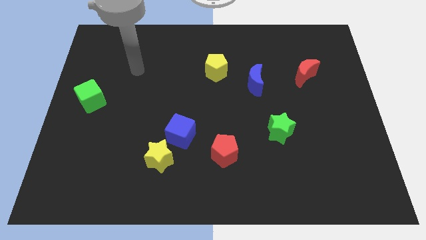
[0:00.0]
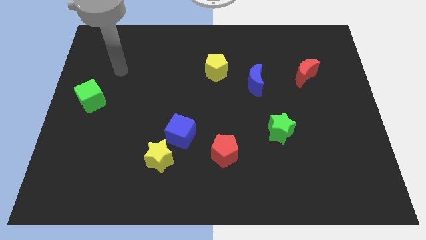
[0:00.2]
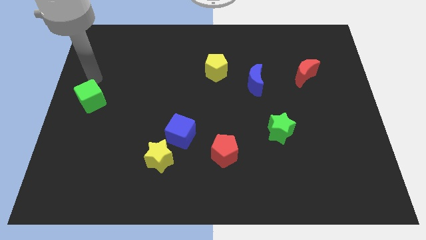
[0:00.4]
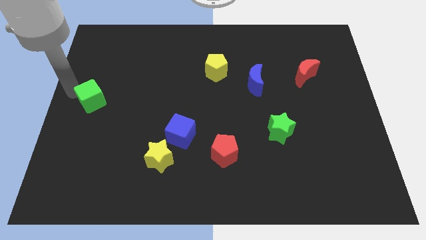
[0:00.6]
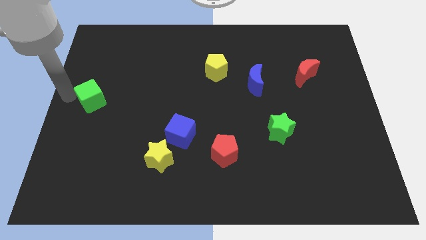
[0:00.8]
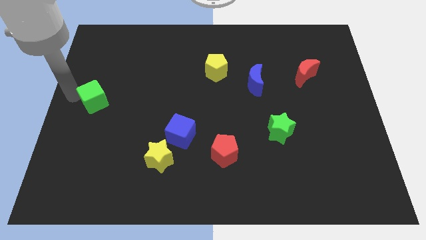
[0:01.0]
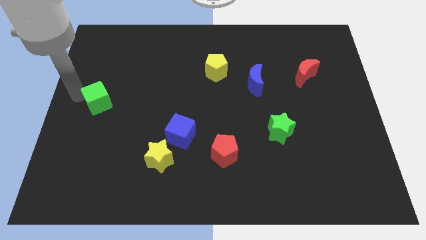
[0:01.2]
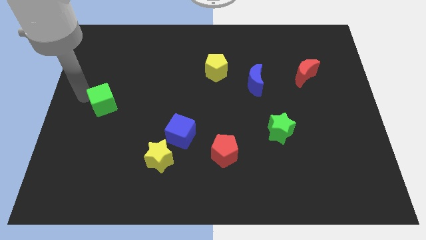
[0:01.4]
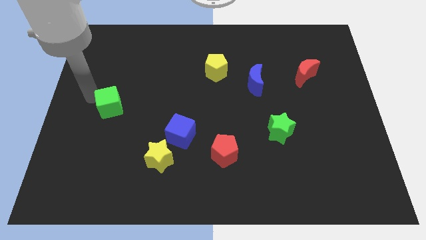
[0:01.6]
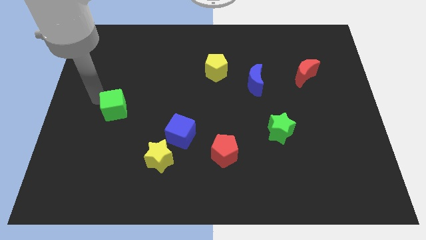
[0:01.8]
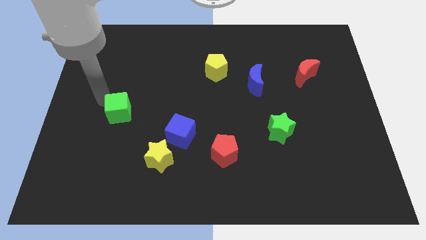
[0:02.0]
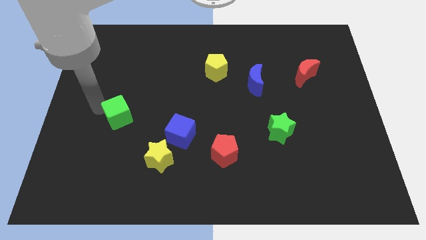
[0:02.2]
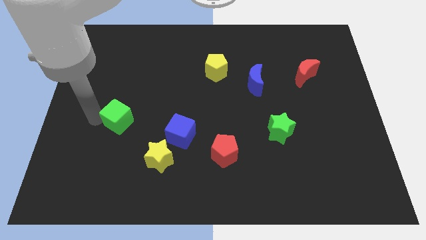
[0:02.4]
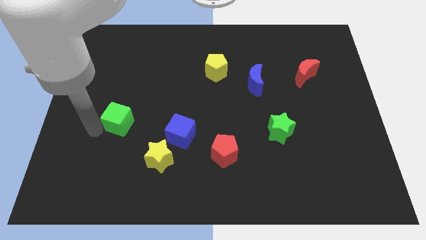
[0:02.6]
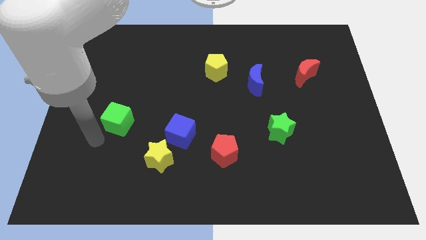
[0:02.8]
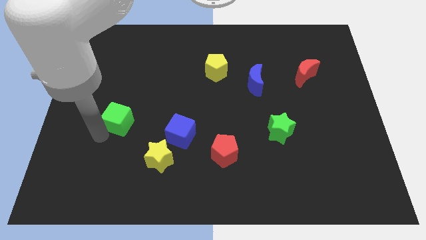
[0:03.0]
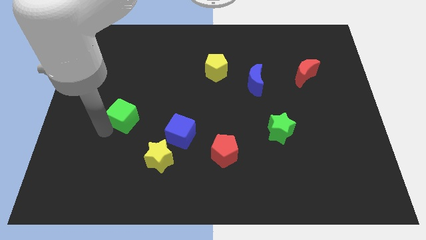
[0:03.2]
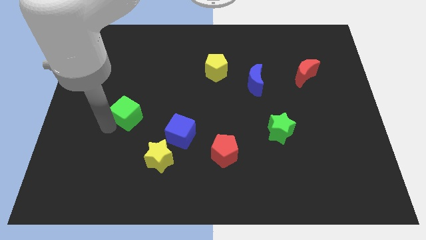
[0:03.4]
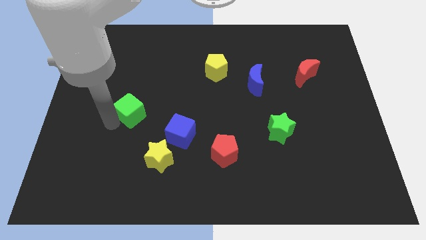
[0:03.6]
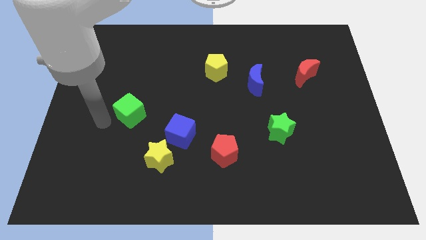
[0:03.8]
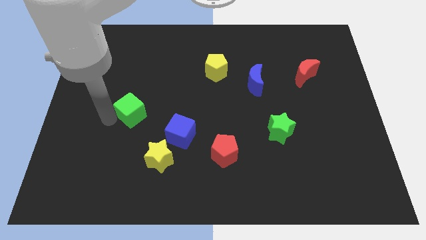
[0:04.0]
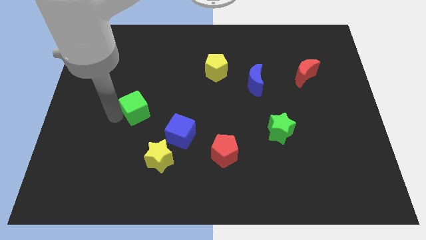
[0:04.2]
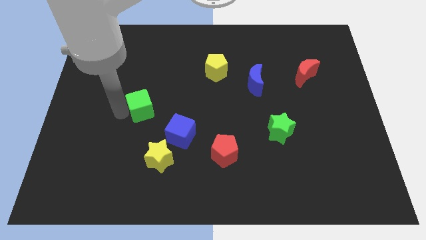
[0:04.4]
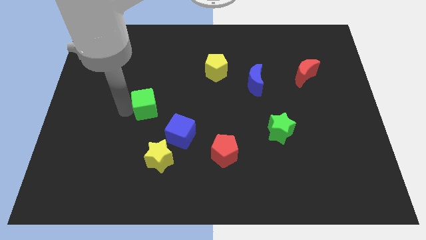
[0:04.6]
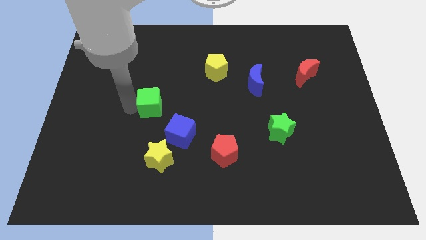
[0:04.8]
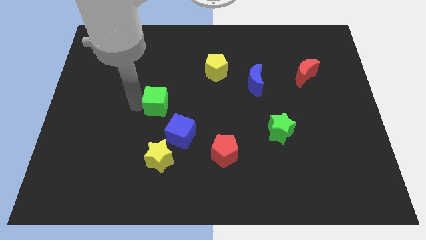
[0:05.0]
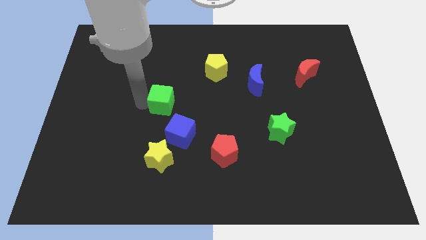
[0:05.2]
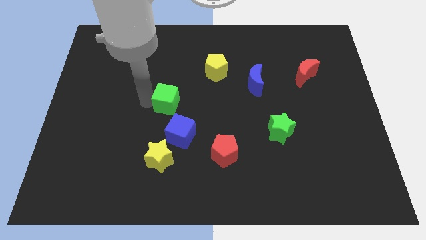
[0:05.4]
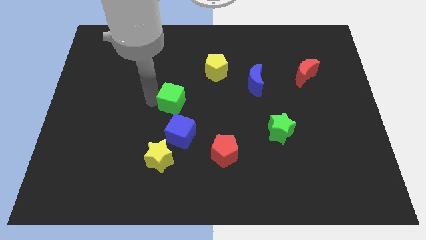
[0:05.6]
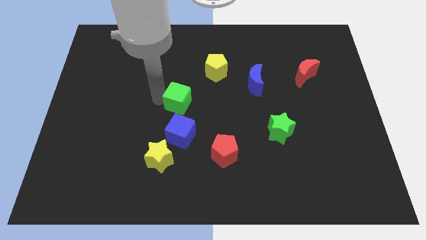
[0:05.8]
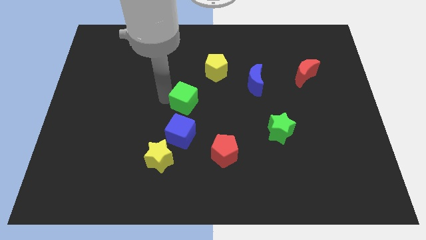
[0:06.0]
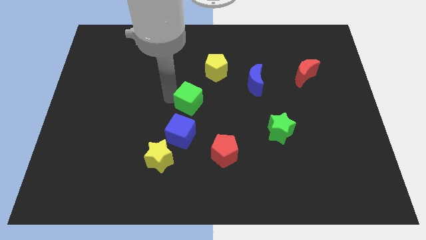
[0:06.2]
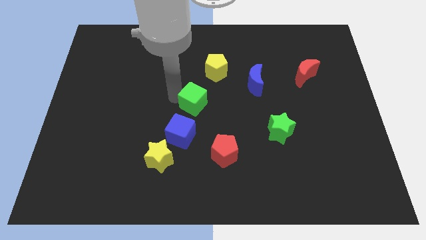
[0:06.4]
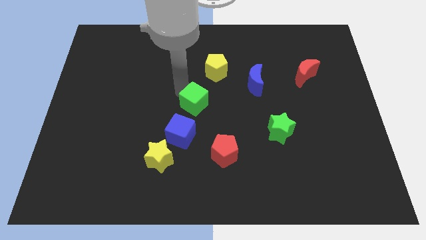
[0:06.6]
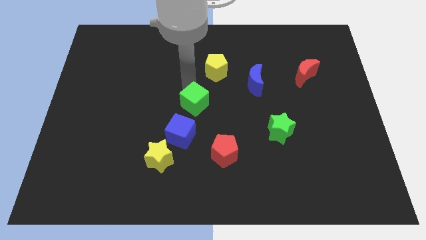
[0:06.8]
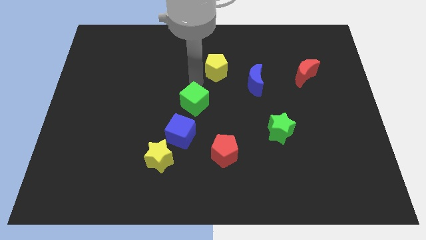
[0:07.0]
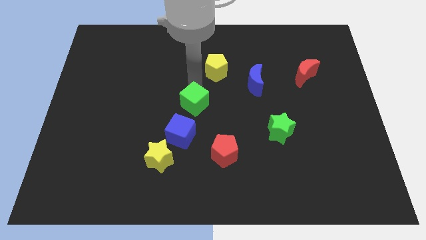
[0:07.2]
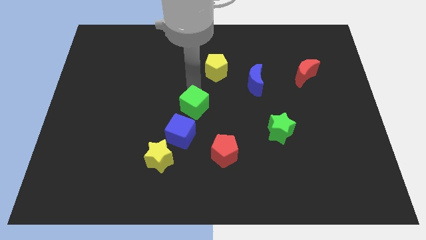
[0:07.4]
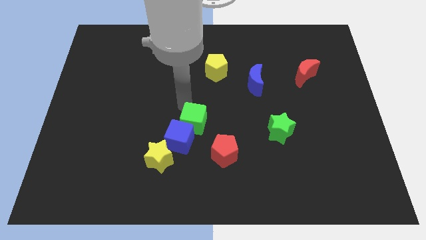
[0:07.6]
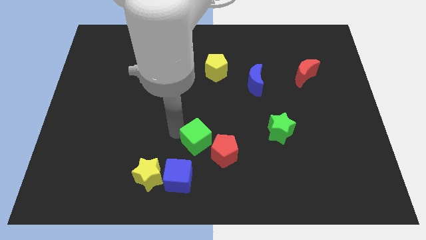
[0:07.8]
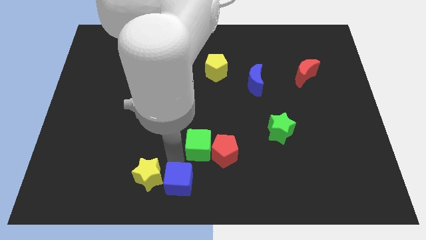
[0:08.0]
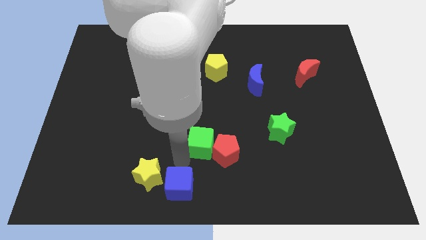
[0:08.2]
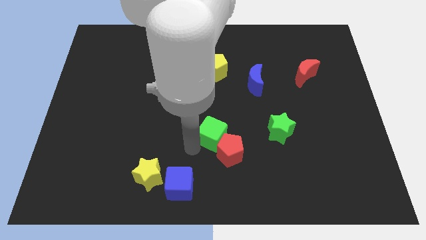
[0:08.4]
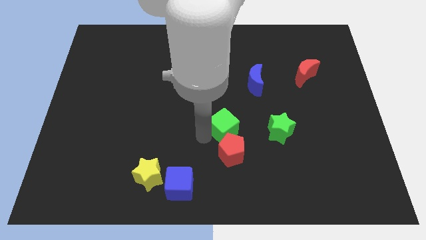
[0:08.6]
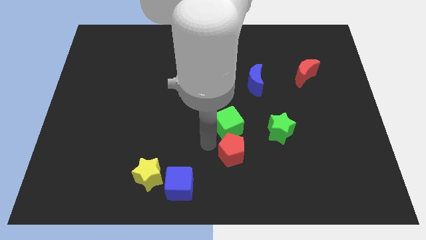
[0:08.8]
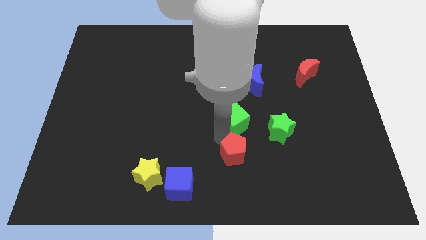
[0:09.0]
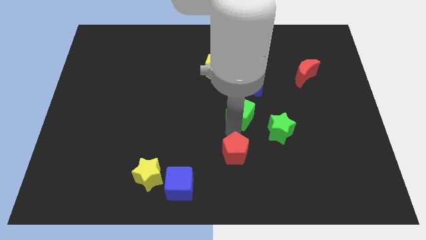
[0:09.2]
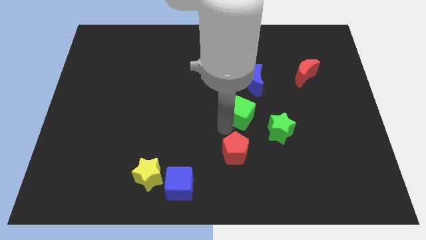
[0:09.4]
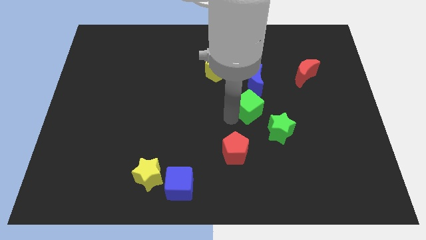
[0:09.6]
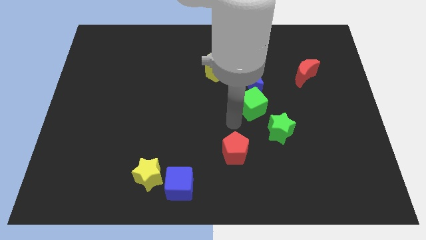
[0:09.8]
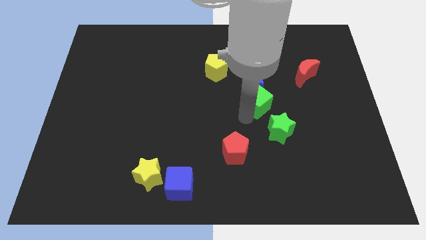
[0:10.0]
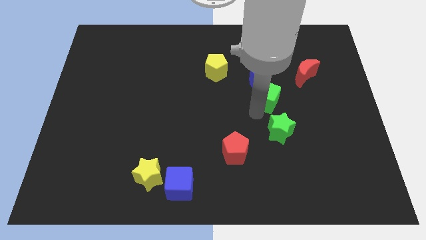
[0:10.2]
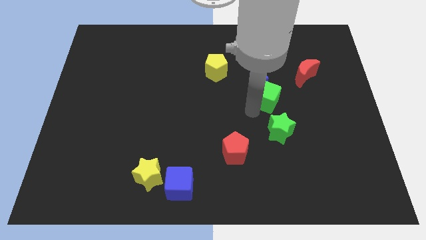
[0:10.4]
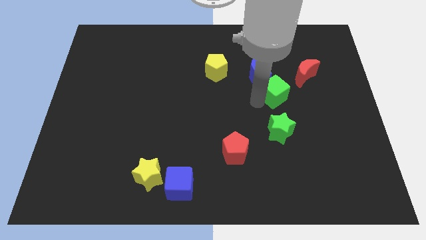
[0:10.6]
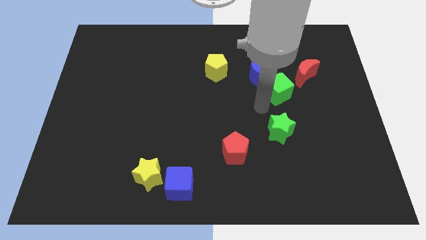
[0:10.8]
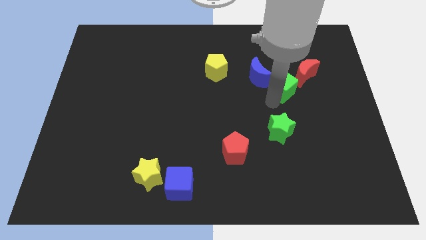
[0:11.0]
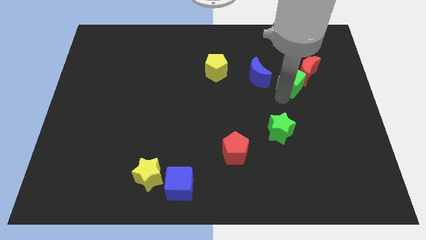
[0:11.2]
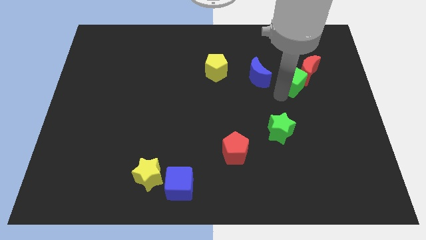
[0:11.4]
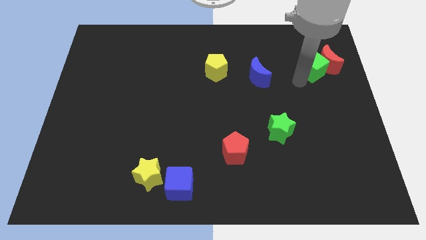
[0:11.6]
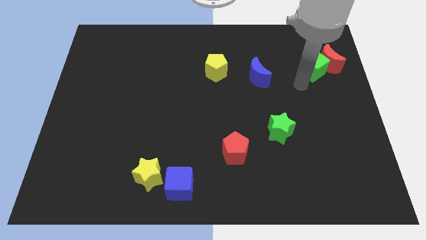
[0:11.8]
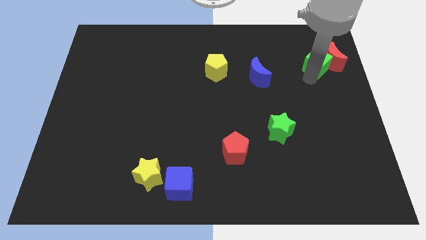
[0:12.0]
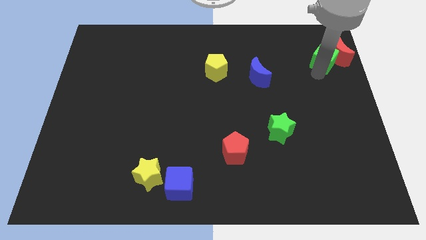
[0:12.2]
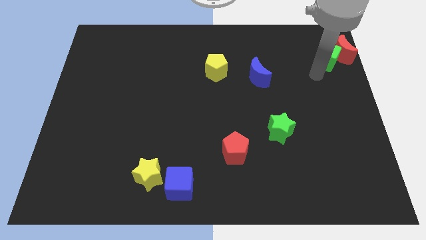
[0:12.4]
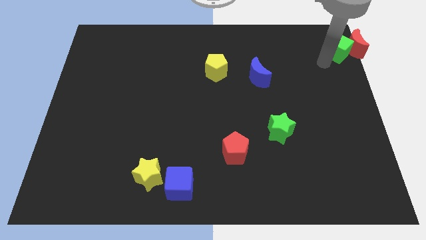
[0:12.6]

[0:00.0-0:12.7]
put the green cube to the top right corner
